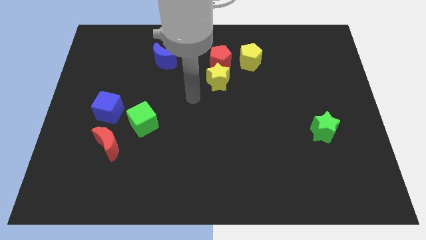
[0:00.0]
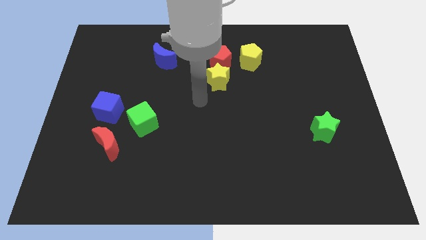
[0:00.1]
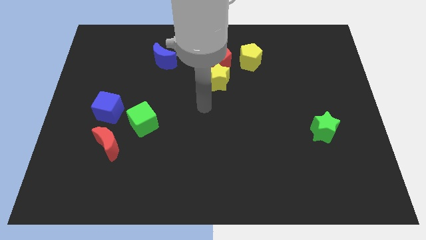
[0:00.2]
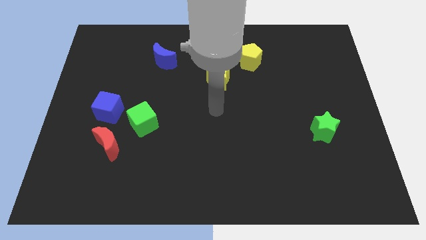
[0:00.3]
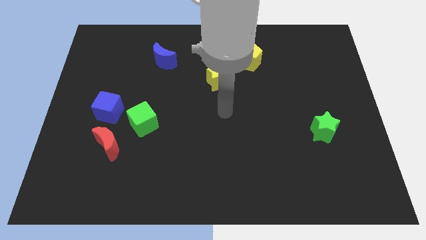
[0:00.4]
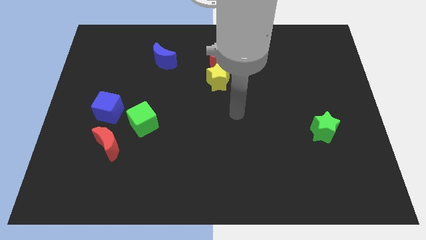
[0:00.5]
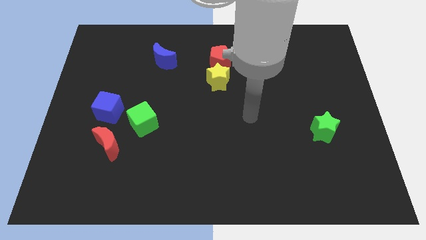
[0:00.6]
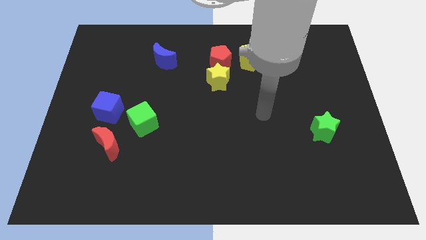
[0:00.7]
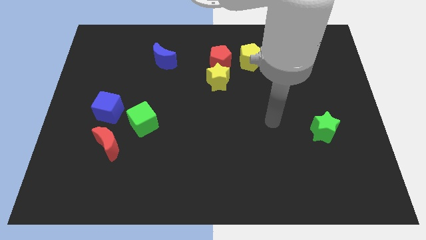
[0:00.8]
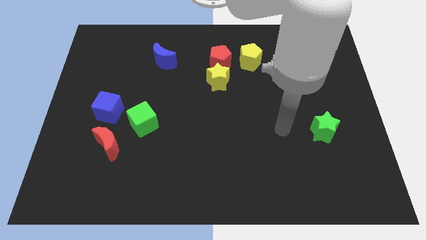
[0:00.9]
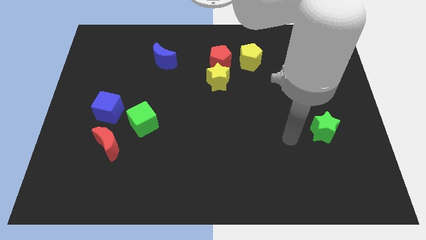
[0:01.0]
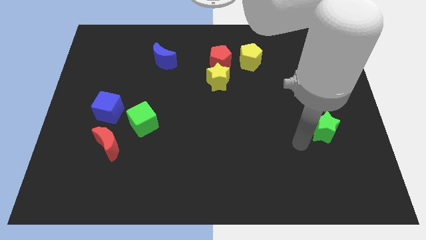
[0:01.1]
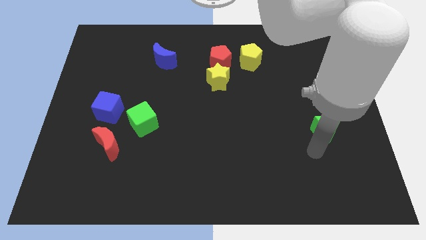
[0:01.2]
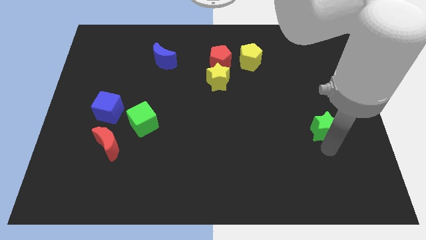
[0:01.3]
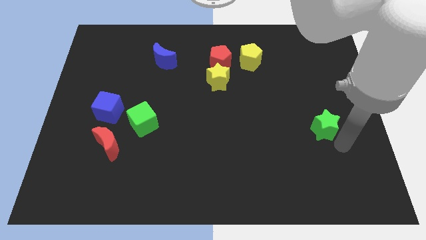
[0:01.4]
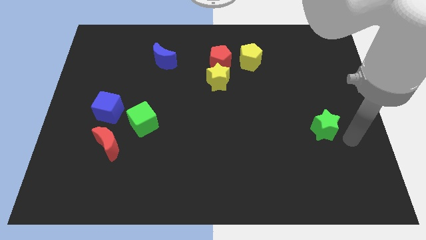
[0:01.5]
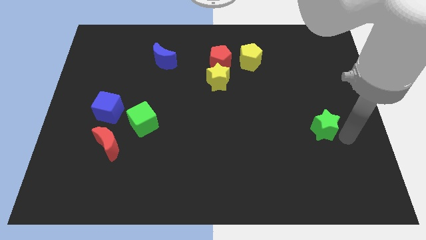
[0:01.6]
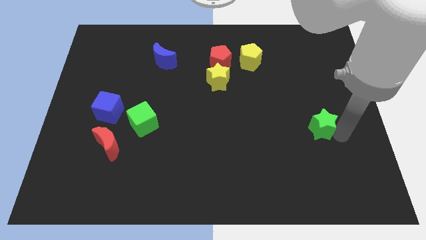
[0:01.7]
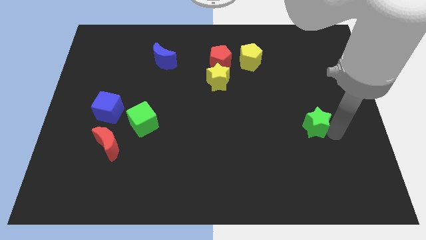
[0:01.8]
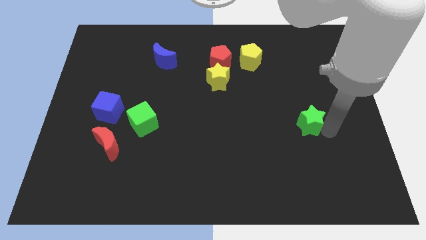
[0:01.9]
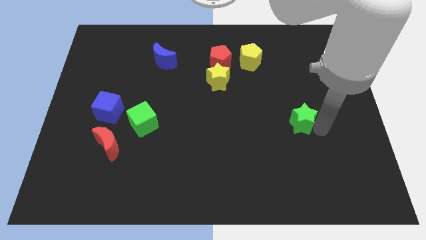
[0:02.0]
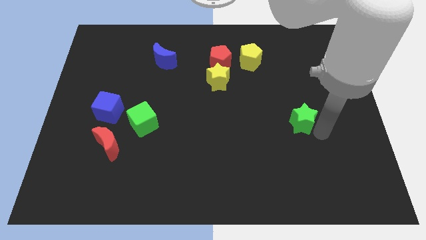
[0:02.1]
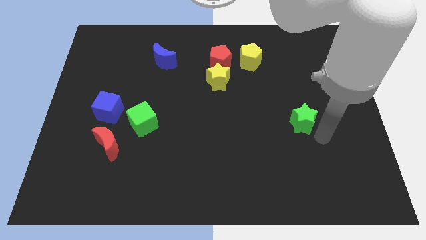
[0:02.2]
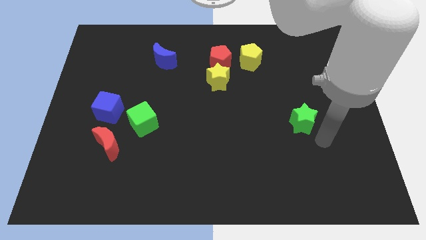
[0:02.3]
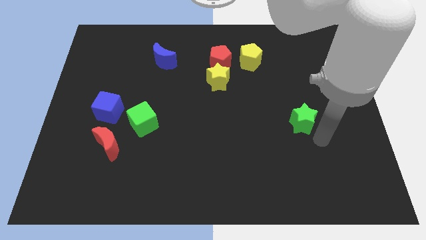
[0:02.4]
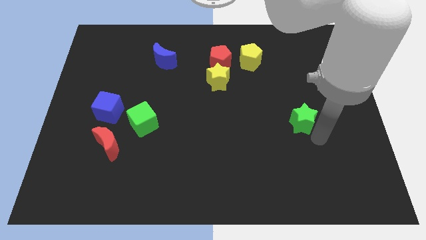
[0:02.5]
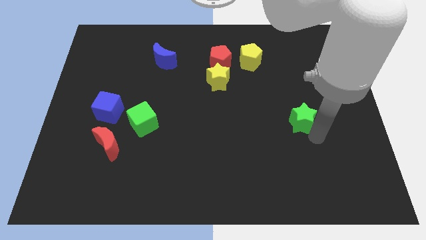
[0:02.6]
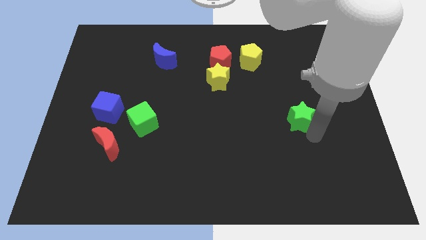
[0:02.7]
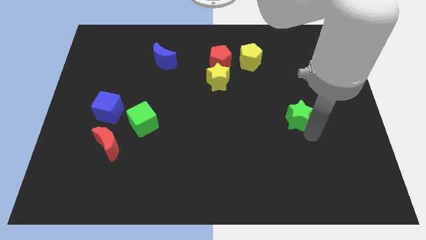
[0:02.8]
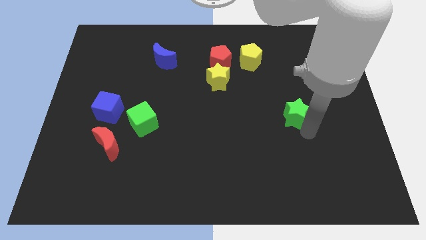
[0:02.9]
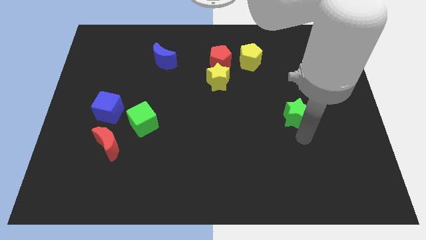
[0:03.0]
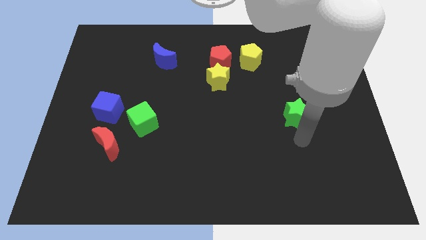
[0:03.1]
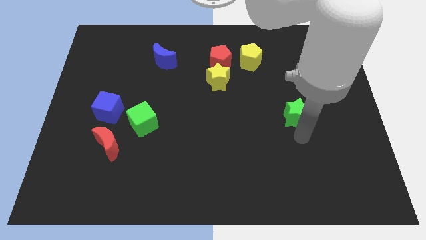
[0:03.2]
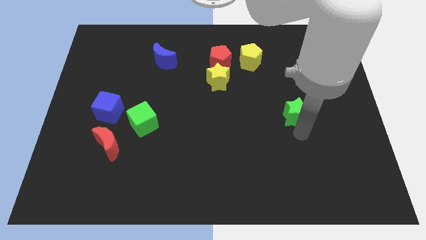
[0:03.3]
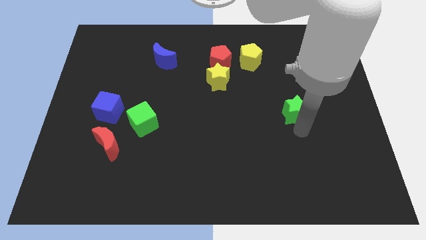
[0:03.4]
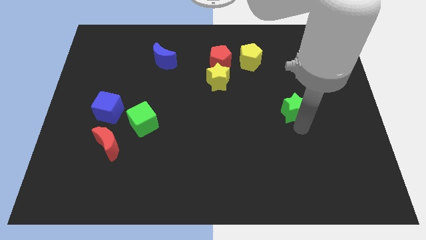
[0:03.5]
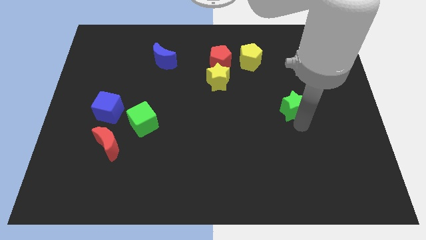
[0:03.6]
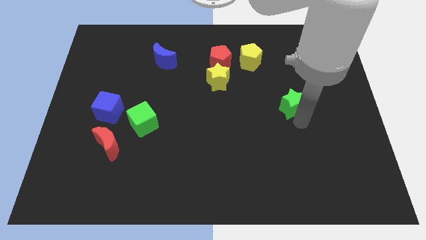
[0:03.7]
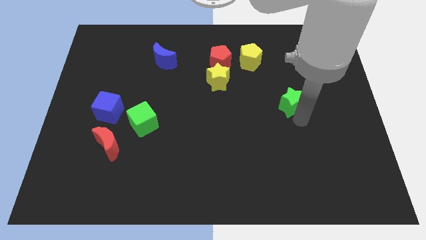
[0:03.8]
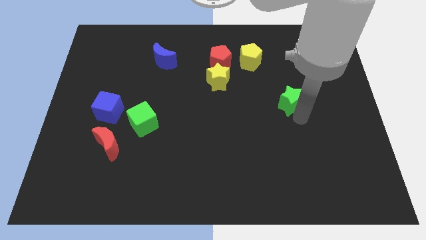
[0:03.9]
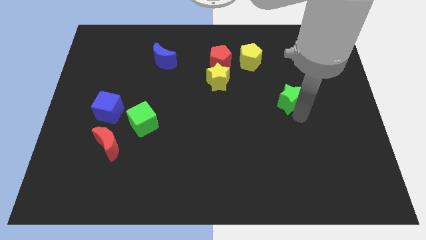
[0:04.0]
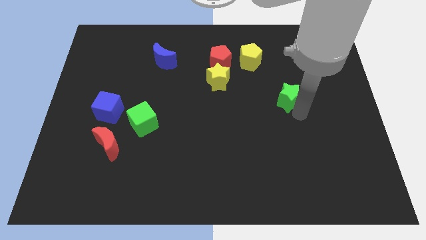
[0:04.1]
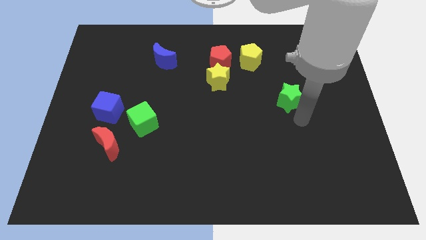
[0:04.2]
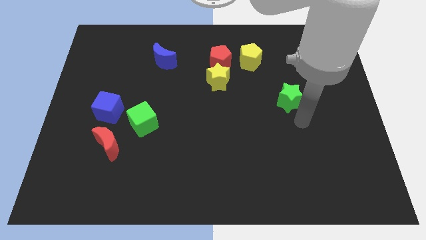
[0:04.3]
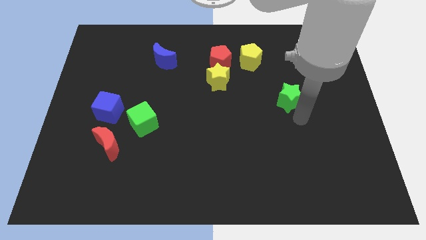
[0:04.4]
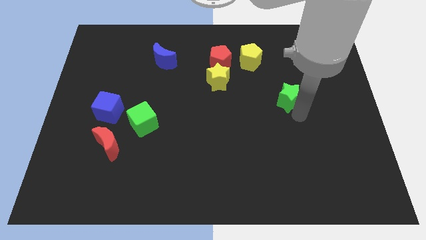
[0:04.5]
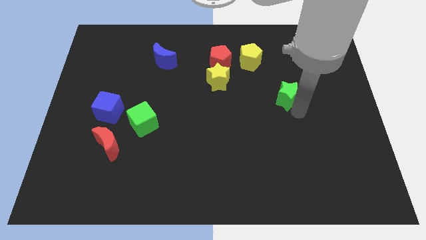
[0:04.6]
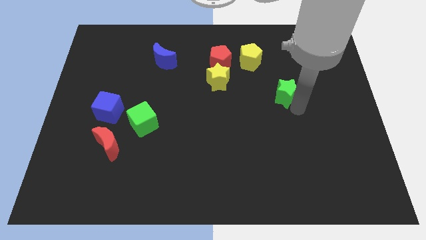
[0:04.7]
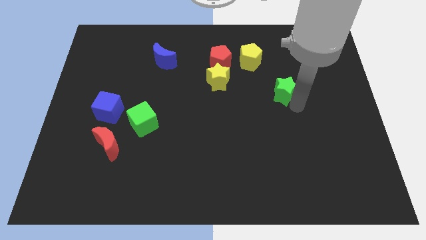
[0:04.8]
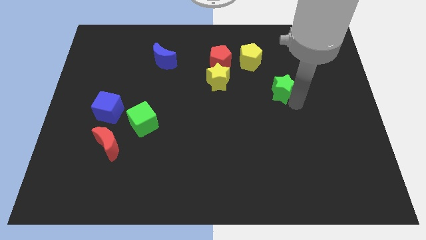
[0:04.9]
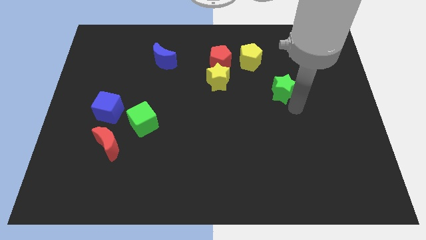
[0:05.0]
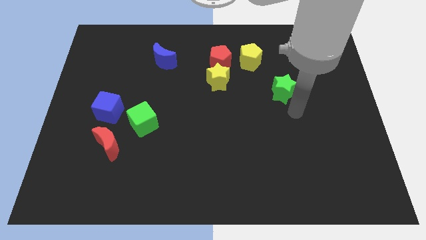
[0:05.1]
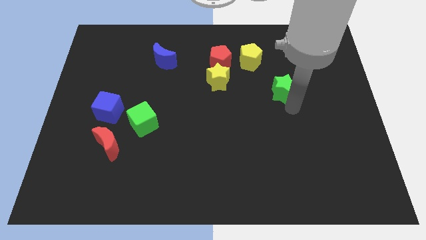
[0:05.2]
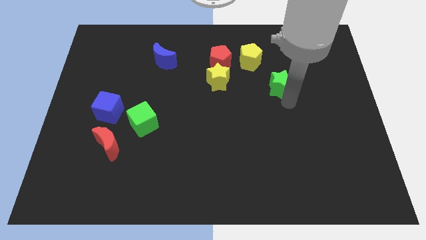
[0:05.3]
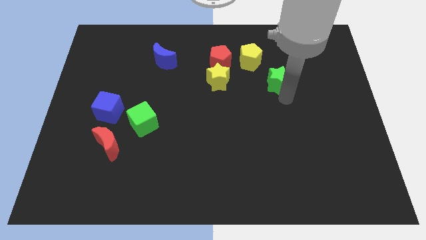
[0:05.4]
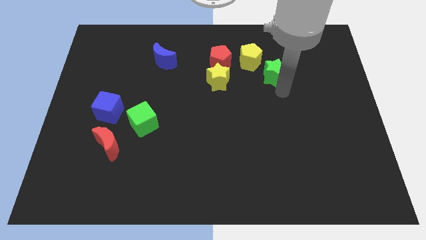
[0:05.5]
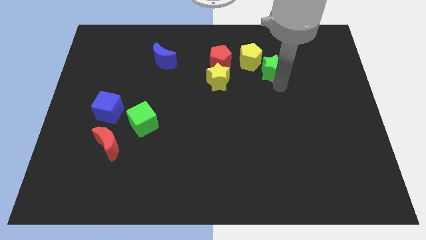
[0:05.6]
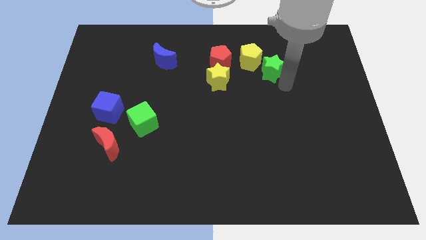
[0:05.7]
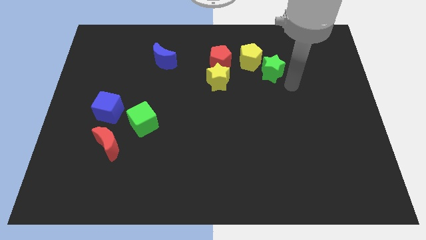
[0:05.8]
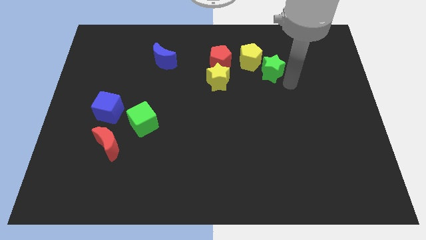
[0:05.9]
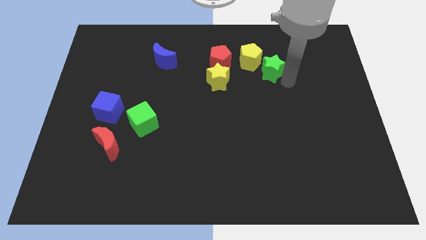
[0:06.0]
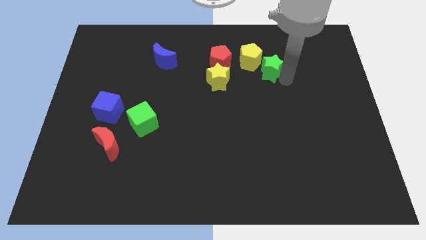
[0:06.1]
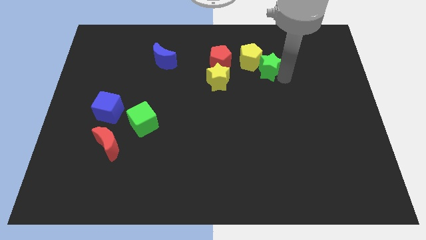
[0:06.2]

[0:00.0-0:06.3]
move the green star next to the yellow pentagon
